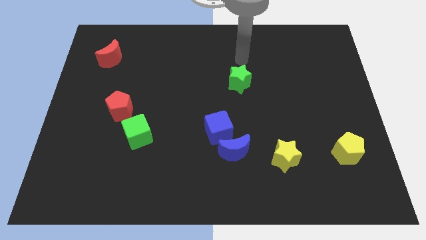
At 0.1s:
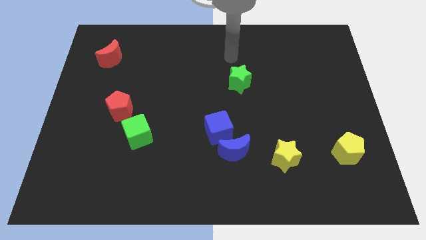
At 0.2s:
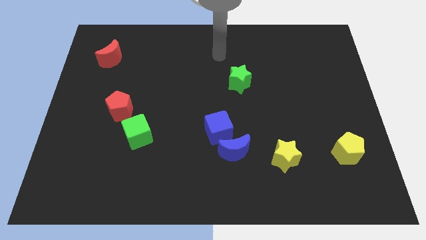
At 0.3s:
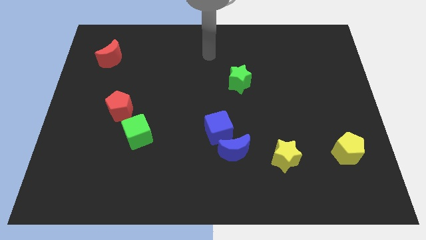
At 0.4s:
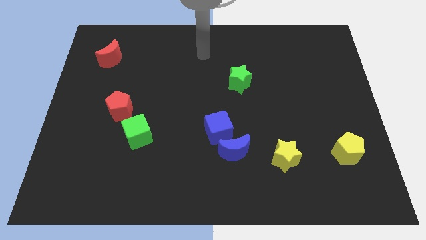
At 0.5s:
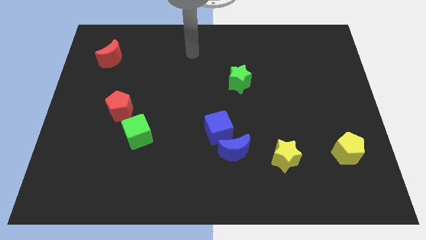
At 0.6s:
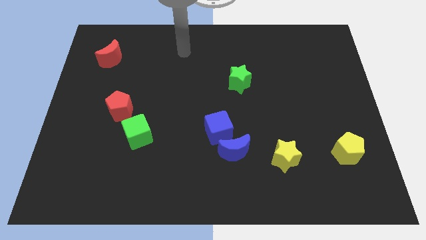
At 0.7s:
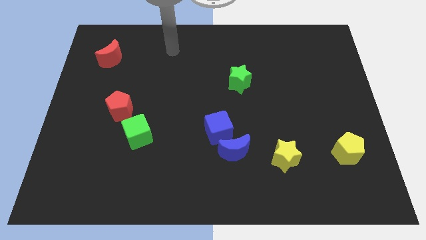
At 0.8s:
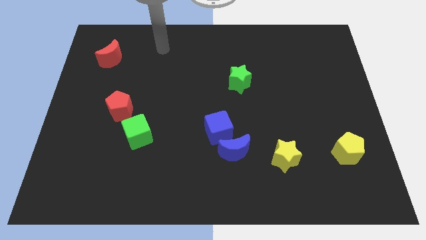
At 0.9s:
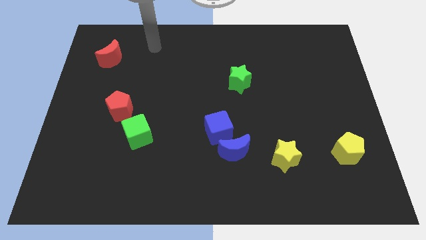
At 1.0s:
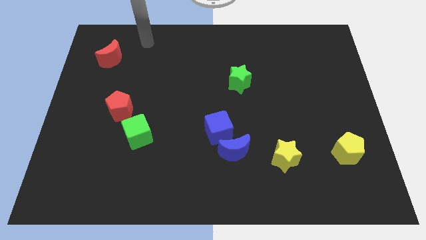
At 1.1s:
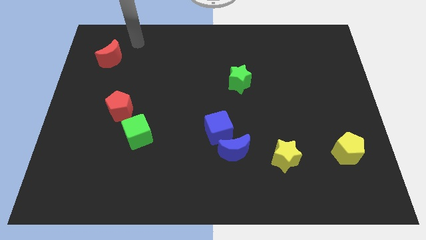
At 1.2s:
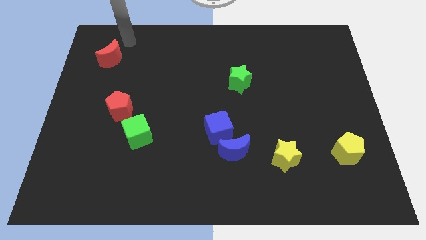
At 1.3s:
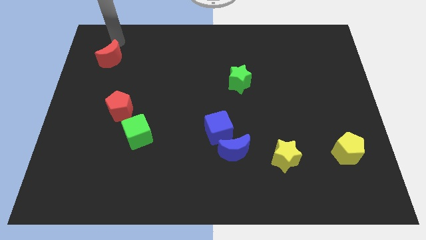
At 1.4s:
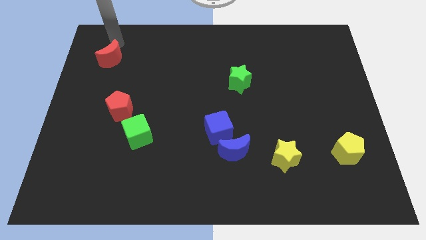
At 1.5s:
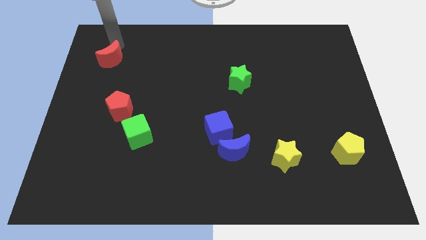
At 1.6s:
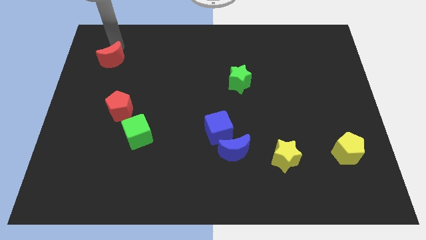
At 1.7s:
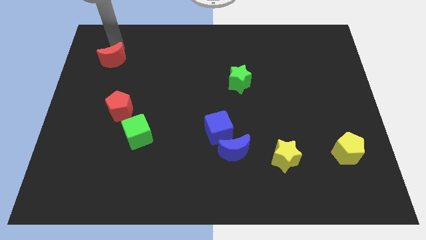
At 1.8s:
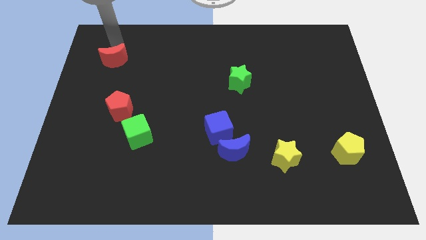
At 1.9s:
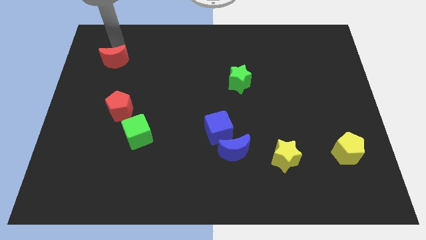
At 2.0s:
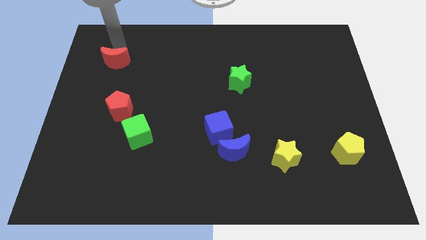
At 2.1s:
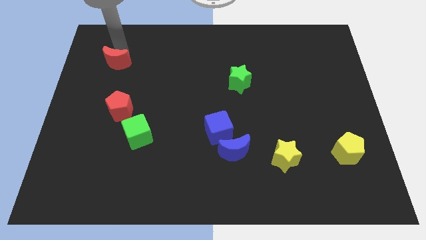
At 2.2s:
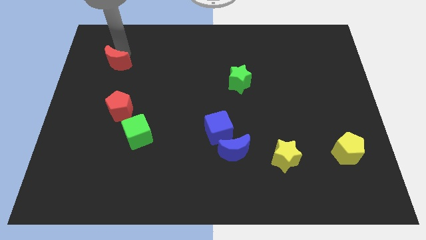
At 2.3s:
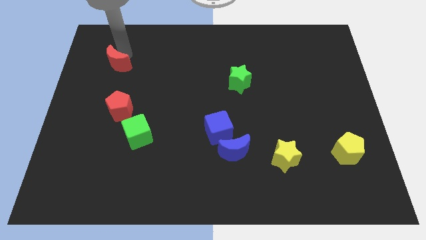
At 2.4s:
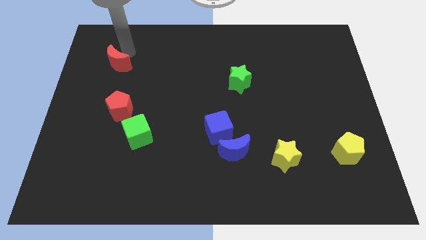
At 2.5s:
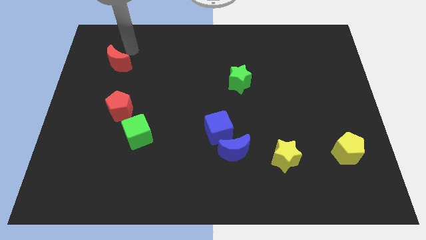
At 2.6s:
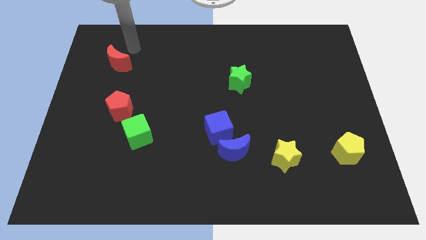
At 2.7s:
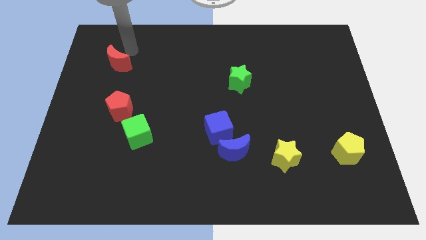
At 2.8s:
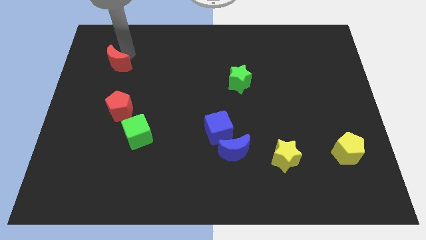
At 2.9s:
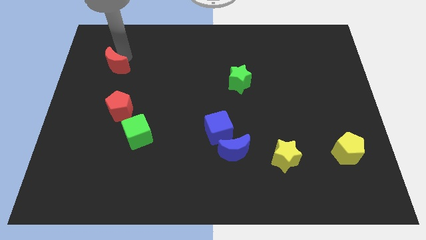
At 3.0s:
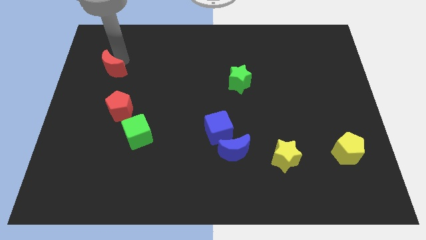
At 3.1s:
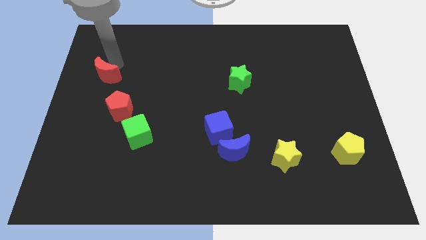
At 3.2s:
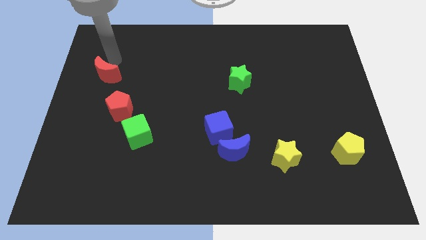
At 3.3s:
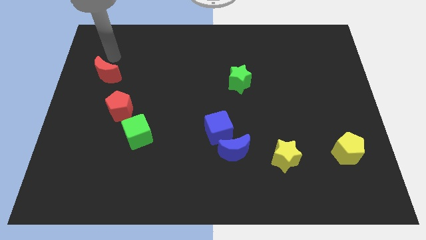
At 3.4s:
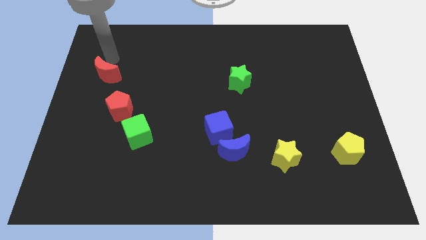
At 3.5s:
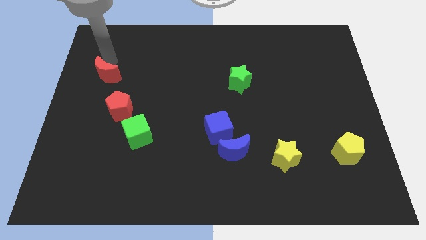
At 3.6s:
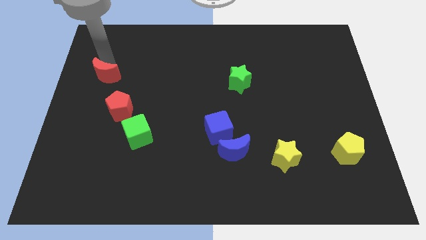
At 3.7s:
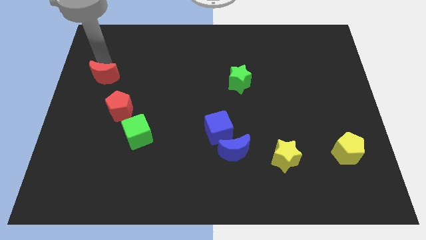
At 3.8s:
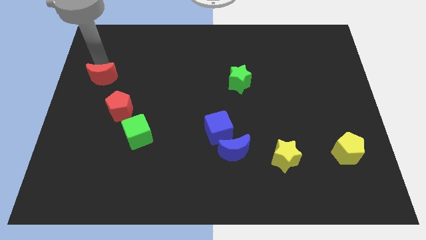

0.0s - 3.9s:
push the red moon down a little

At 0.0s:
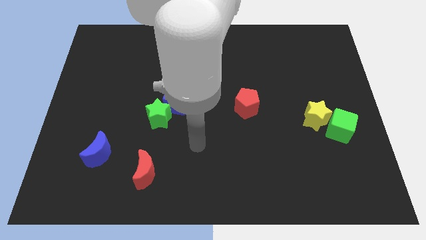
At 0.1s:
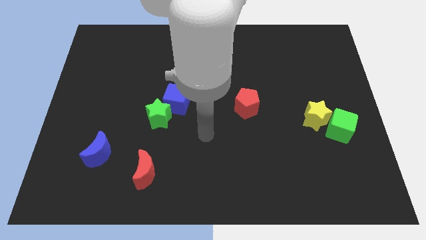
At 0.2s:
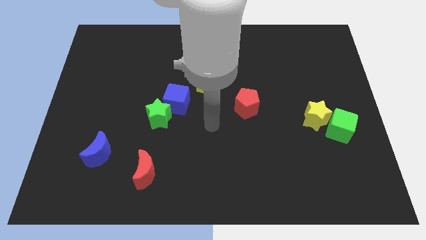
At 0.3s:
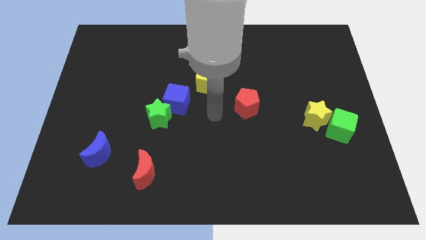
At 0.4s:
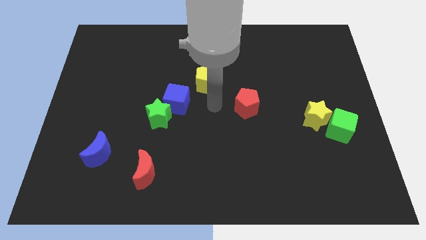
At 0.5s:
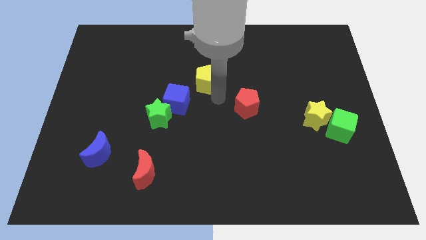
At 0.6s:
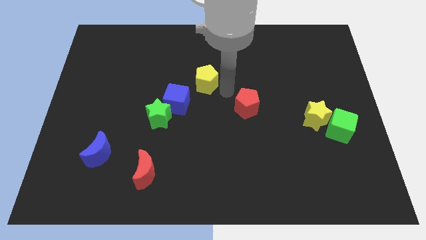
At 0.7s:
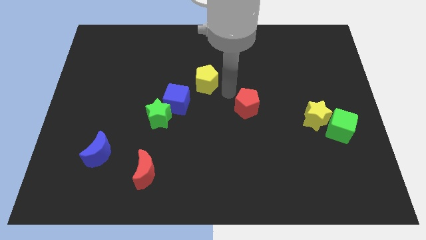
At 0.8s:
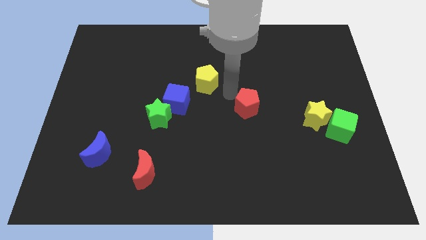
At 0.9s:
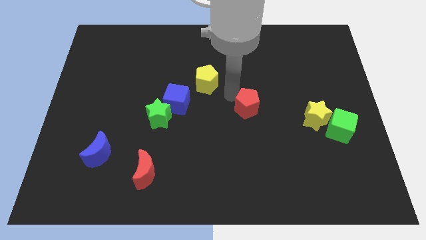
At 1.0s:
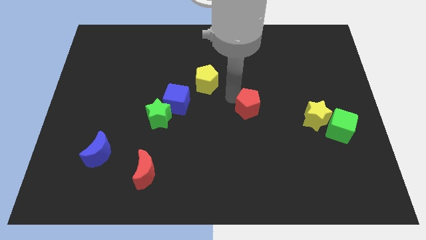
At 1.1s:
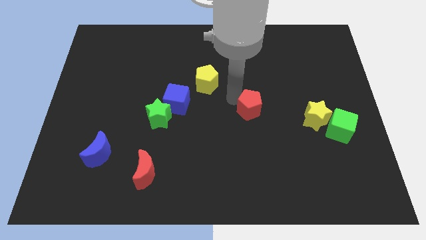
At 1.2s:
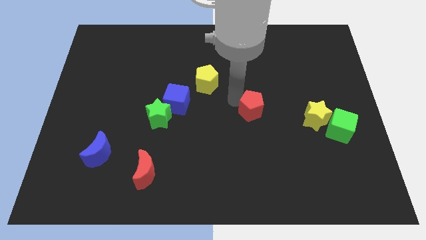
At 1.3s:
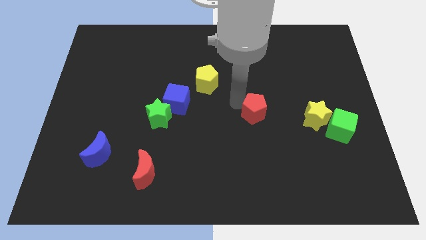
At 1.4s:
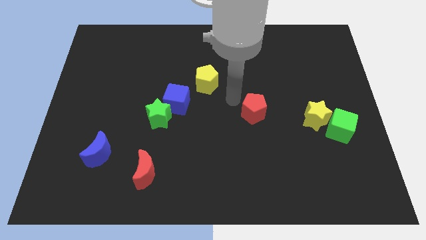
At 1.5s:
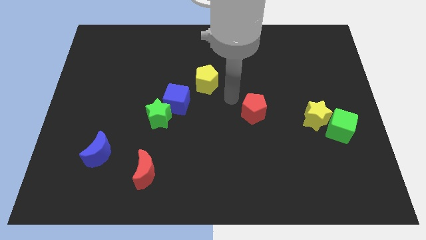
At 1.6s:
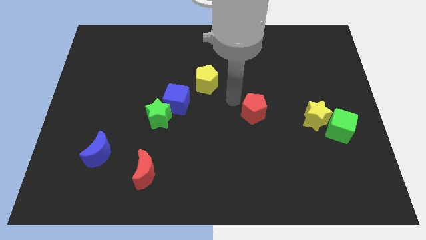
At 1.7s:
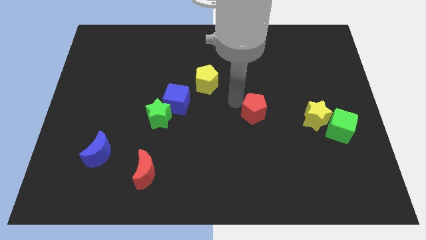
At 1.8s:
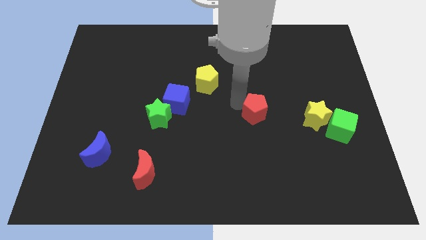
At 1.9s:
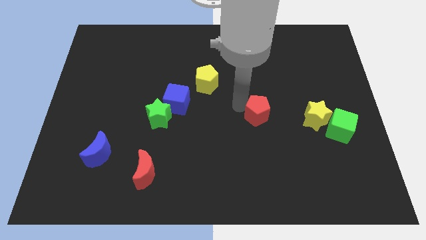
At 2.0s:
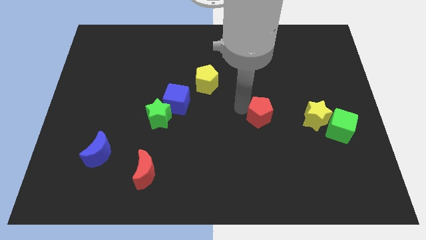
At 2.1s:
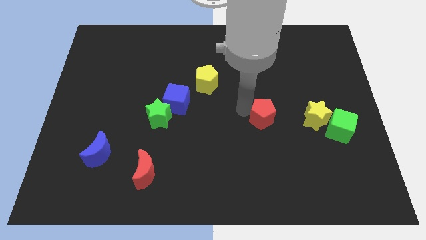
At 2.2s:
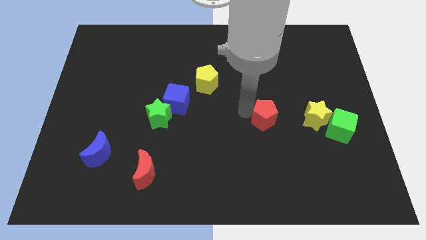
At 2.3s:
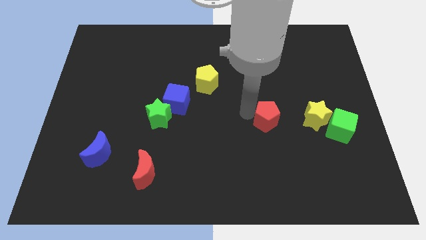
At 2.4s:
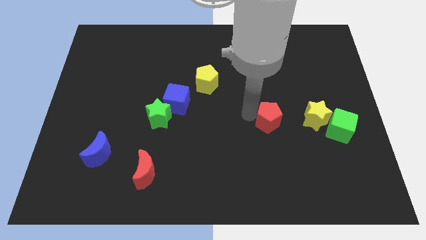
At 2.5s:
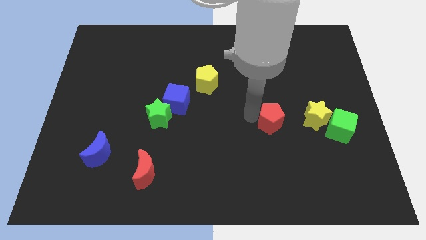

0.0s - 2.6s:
slightly slide the red pentagon downwards and right diagonally

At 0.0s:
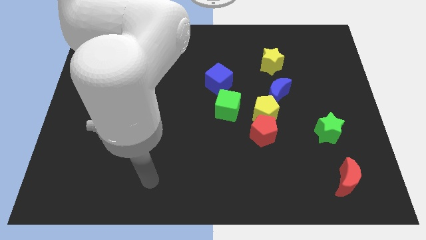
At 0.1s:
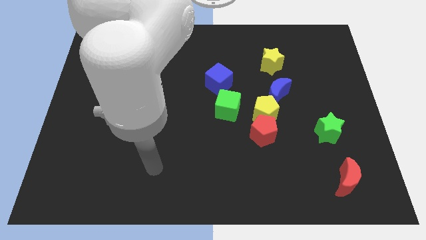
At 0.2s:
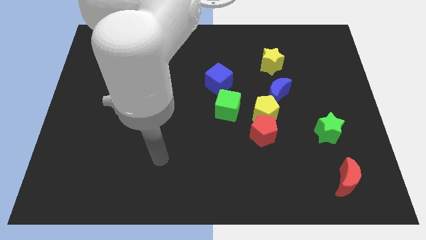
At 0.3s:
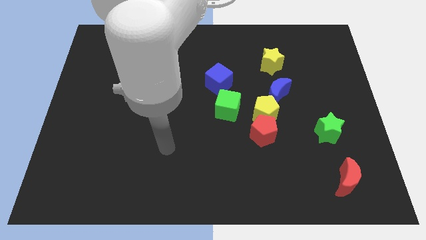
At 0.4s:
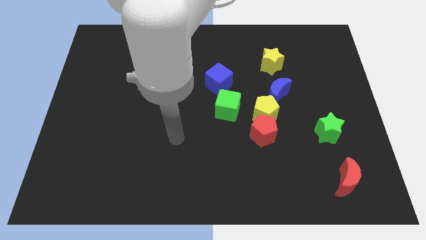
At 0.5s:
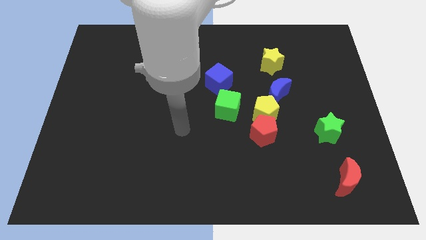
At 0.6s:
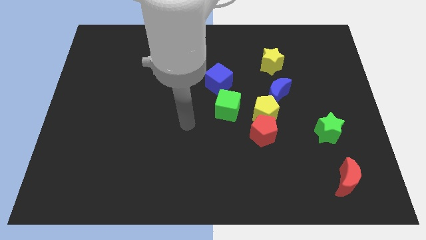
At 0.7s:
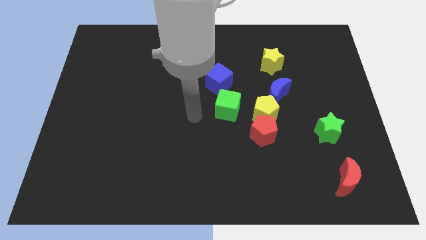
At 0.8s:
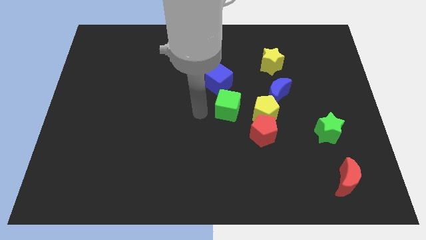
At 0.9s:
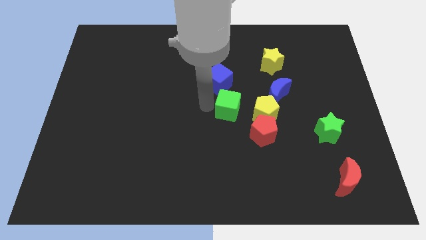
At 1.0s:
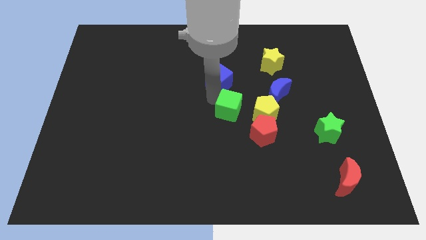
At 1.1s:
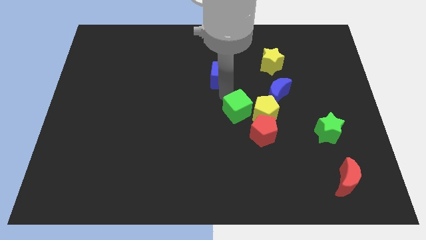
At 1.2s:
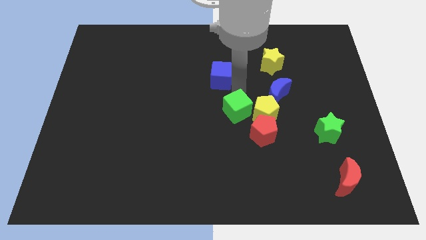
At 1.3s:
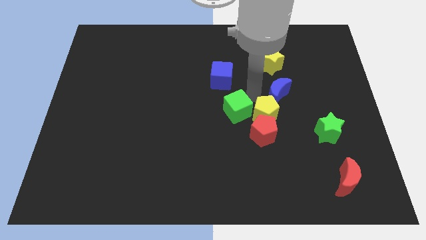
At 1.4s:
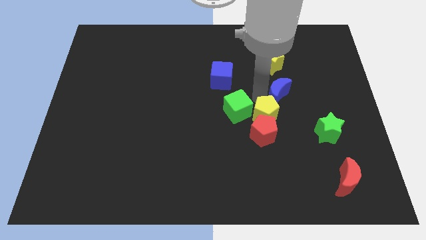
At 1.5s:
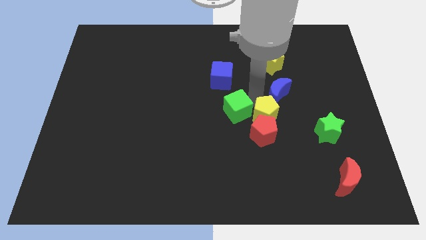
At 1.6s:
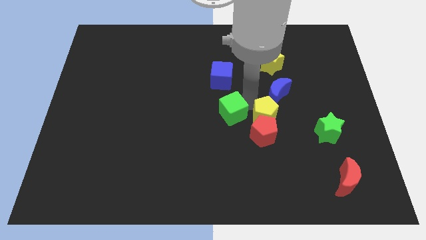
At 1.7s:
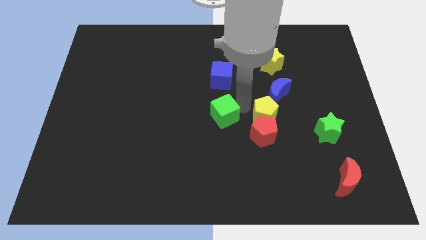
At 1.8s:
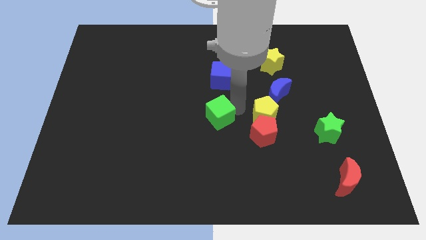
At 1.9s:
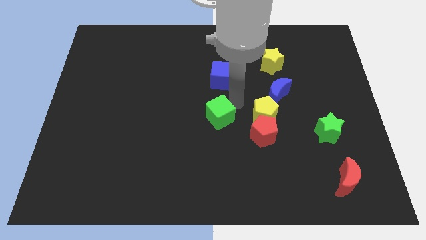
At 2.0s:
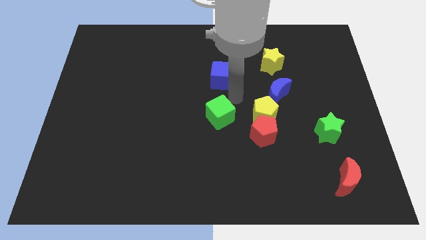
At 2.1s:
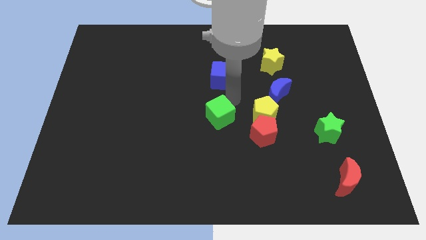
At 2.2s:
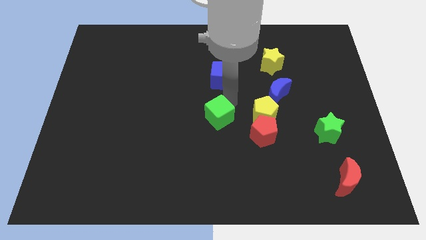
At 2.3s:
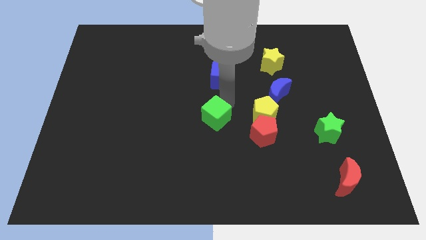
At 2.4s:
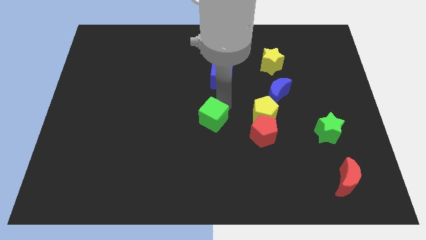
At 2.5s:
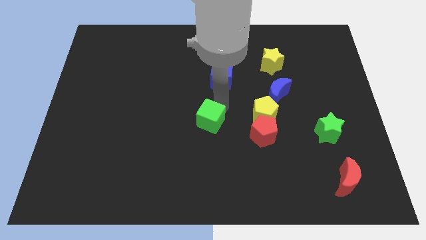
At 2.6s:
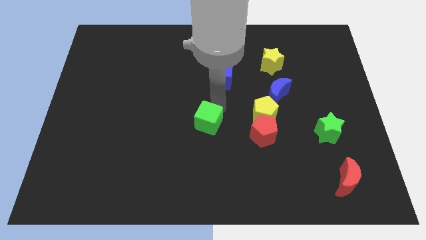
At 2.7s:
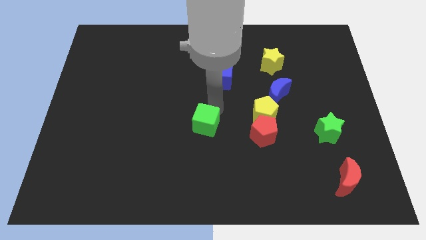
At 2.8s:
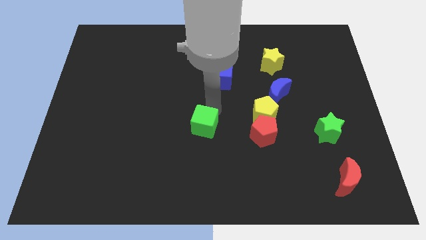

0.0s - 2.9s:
slide the green cube down and then left a little
